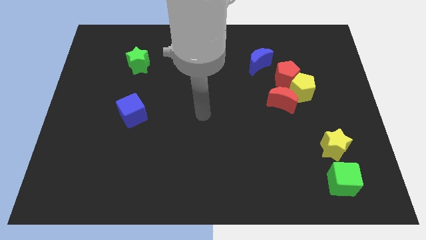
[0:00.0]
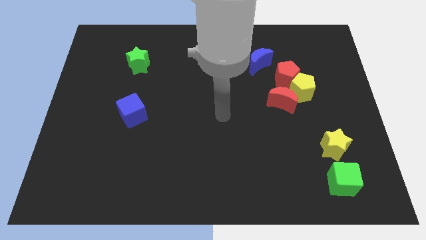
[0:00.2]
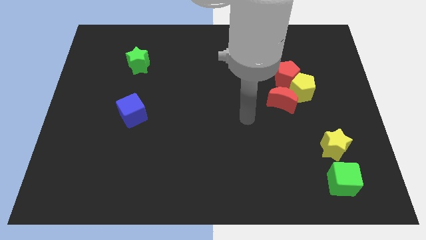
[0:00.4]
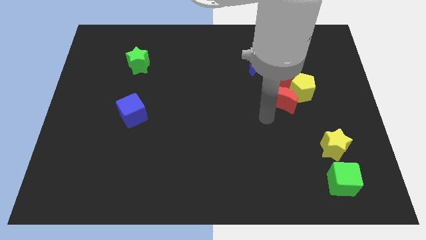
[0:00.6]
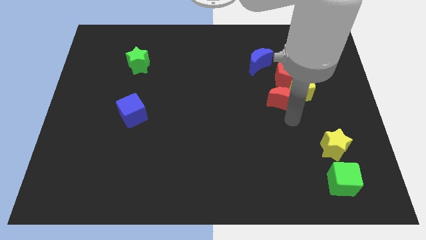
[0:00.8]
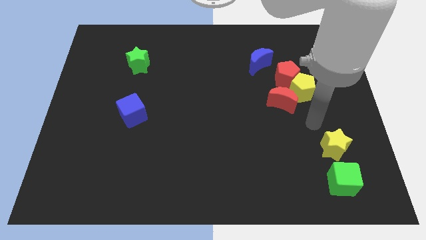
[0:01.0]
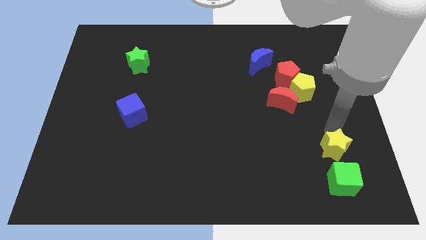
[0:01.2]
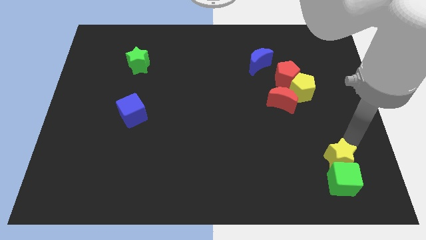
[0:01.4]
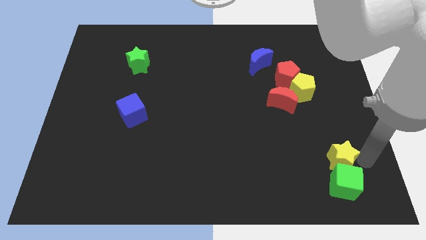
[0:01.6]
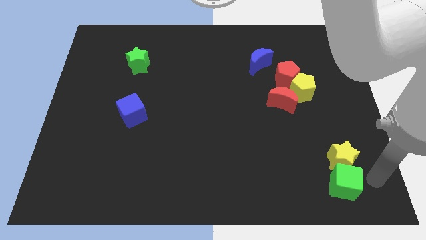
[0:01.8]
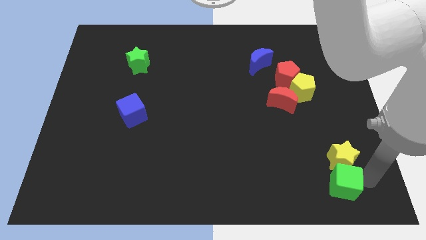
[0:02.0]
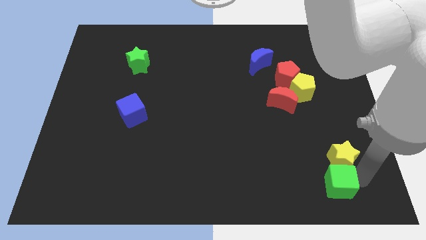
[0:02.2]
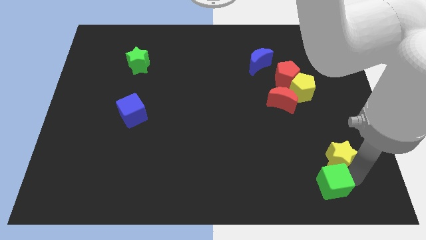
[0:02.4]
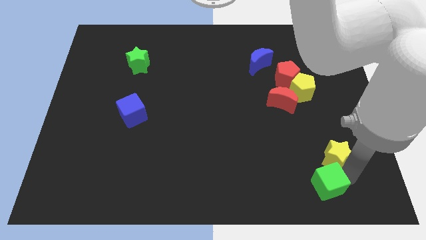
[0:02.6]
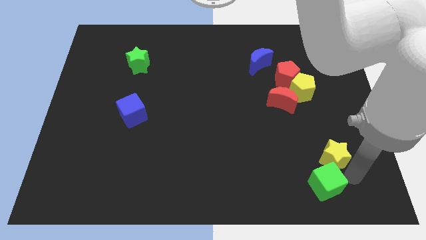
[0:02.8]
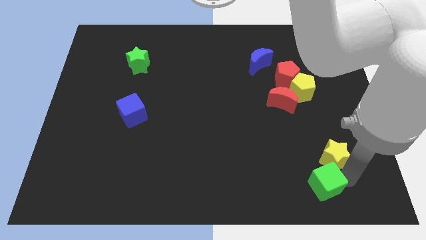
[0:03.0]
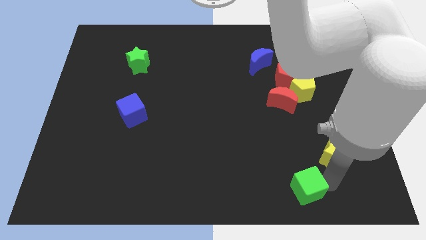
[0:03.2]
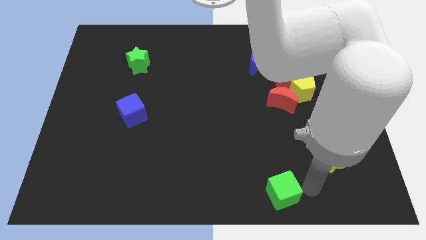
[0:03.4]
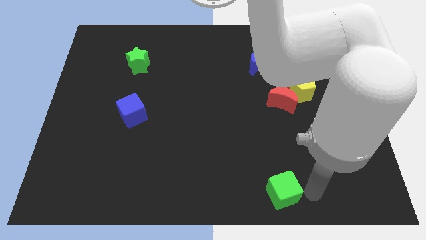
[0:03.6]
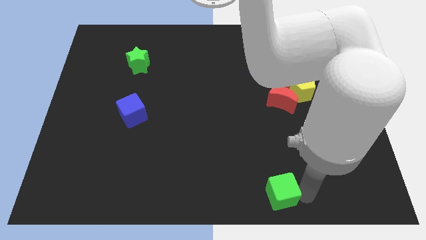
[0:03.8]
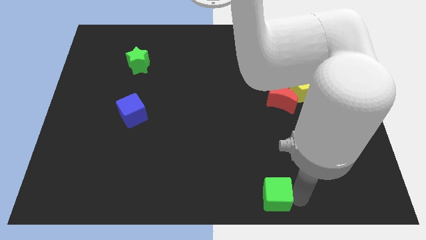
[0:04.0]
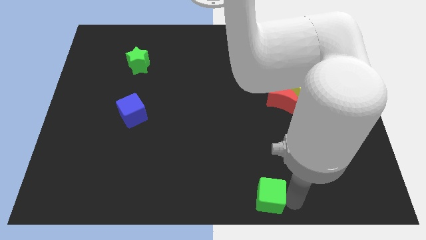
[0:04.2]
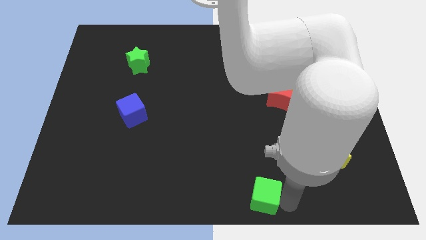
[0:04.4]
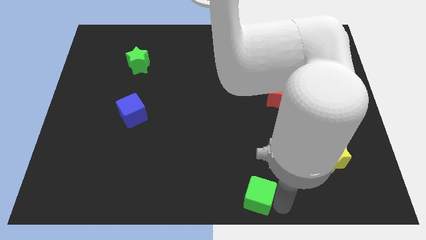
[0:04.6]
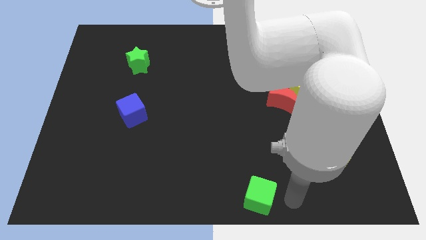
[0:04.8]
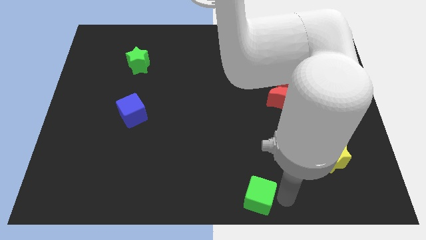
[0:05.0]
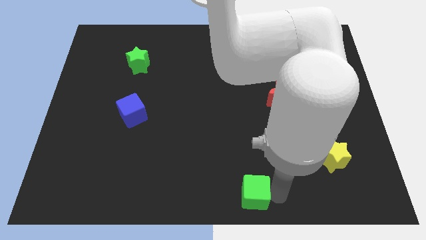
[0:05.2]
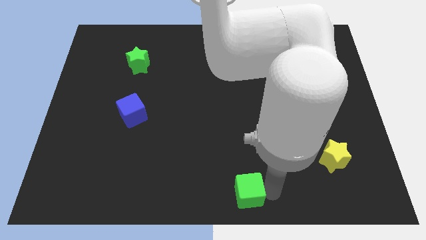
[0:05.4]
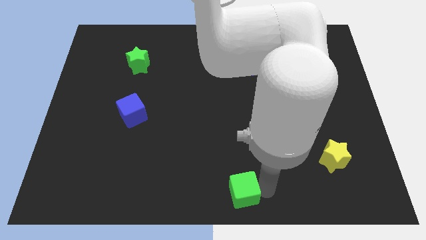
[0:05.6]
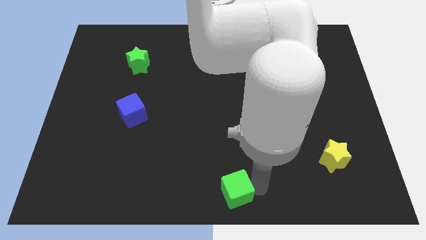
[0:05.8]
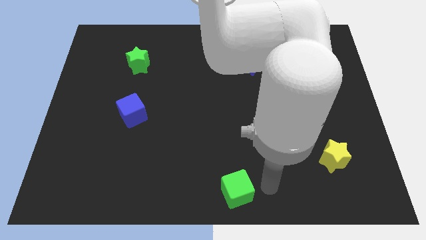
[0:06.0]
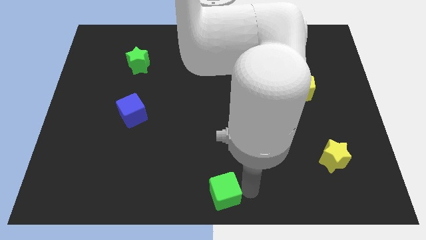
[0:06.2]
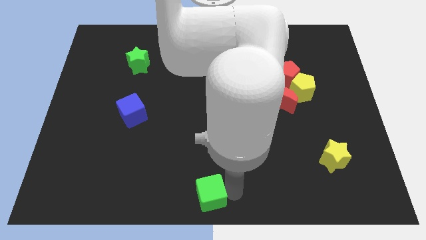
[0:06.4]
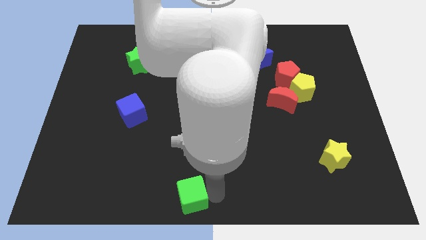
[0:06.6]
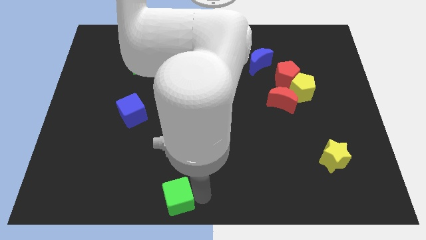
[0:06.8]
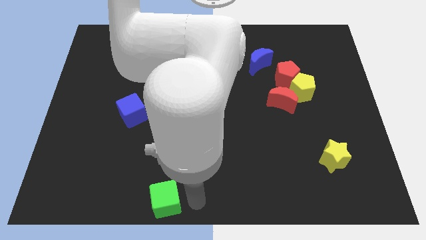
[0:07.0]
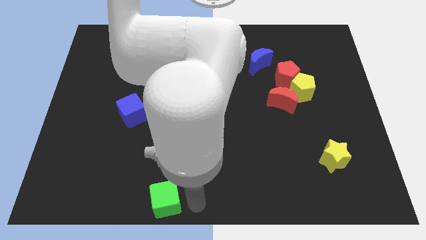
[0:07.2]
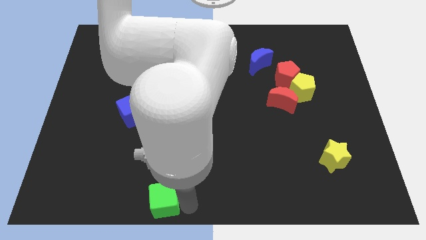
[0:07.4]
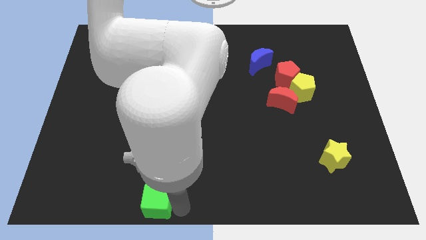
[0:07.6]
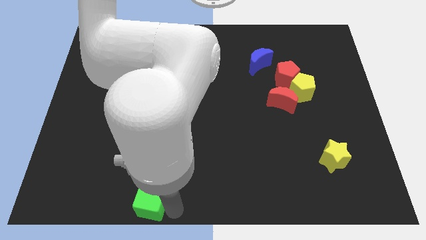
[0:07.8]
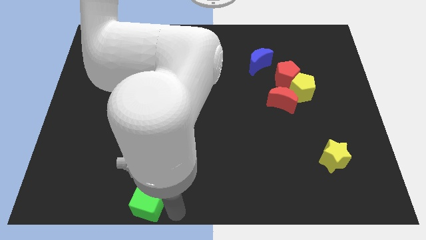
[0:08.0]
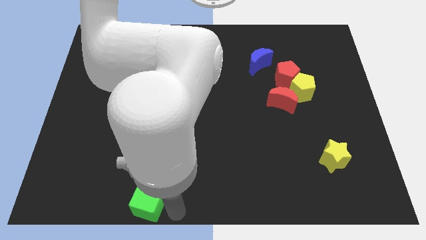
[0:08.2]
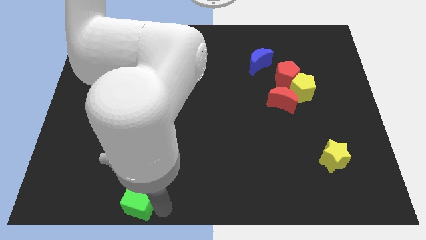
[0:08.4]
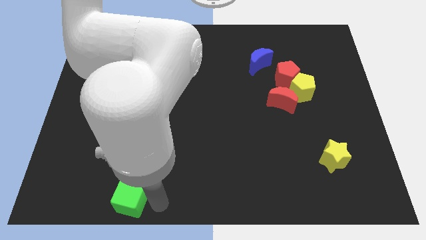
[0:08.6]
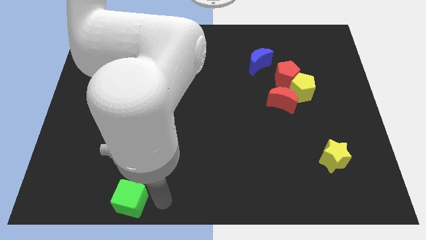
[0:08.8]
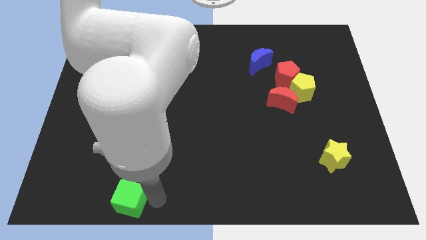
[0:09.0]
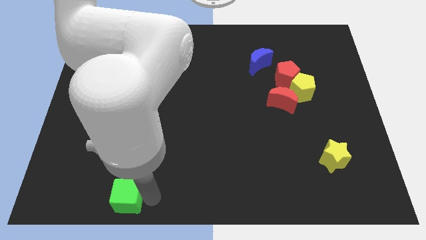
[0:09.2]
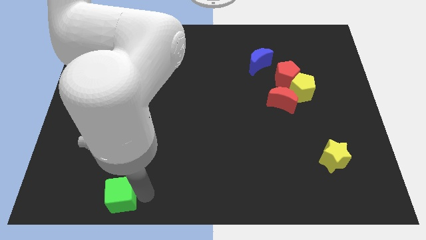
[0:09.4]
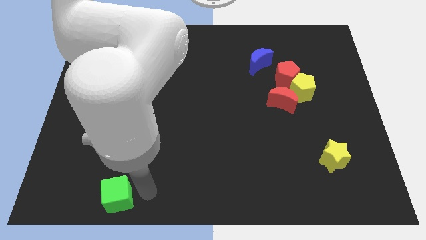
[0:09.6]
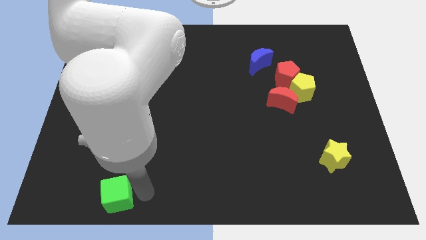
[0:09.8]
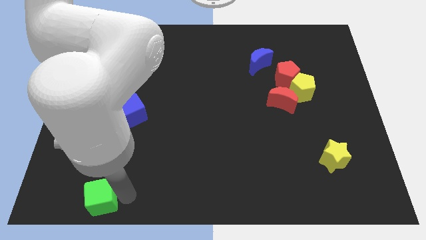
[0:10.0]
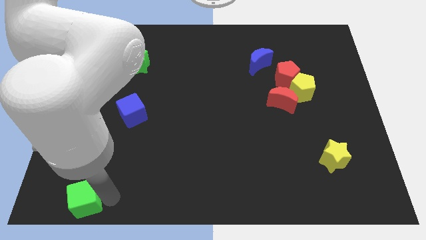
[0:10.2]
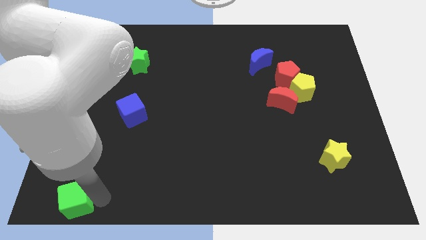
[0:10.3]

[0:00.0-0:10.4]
put the green cube to the bottom left of the board
